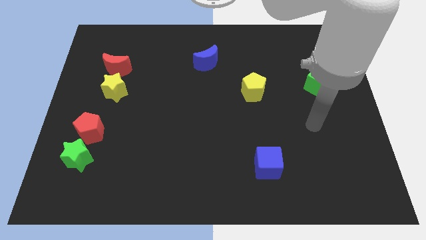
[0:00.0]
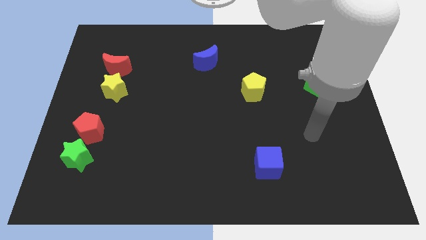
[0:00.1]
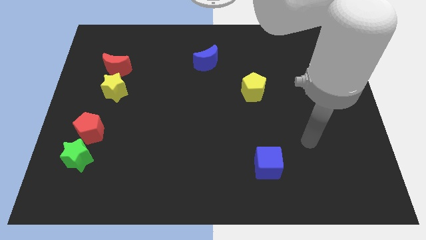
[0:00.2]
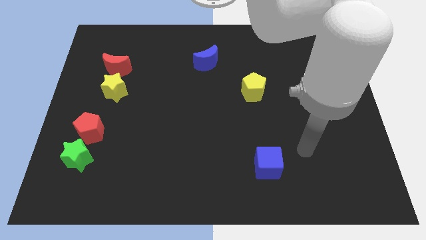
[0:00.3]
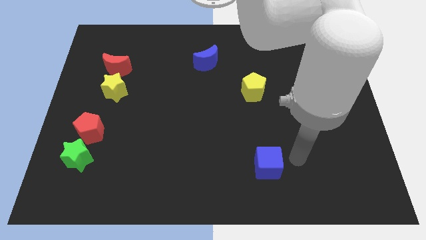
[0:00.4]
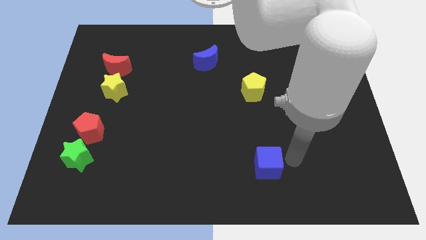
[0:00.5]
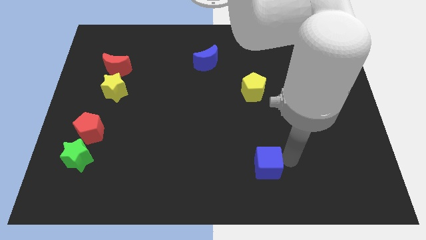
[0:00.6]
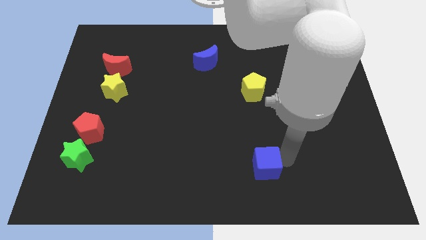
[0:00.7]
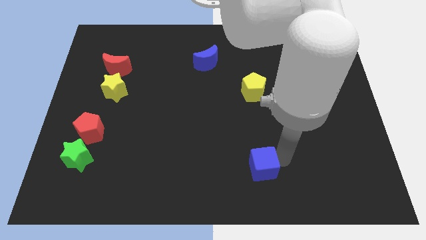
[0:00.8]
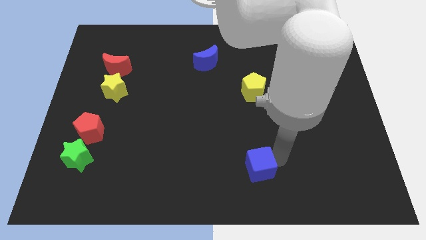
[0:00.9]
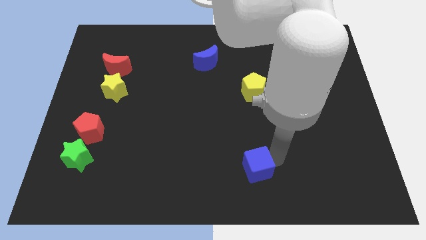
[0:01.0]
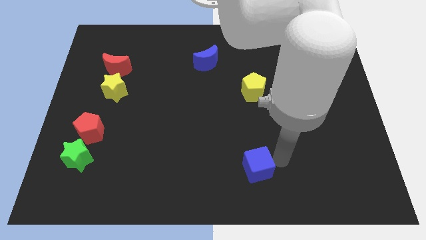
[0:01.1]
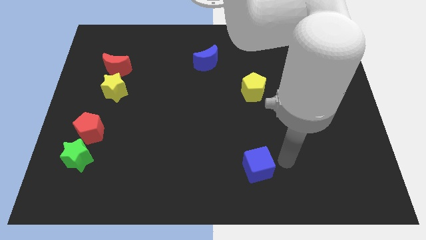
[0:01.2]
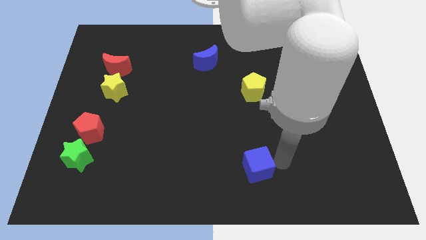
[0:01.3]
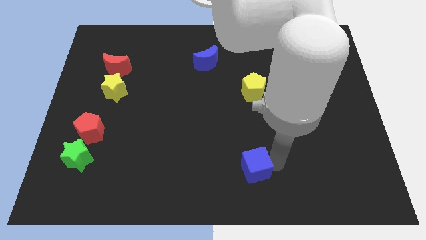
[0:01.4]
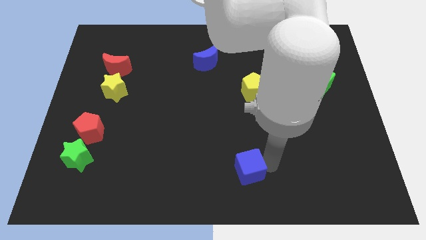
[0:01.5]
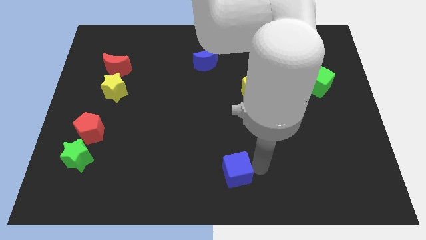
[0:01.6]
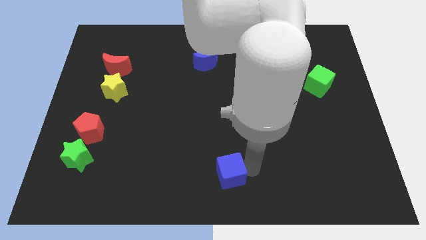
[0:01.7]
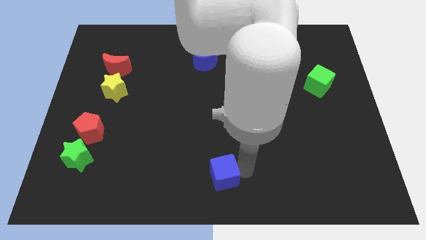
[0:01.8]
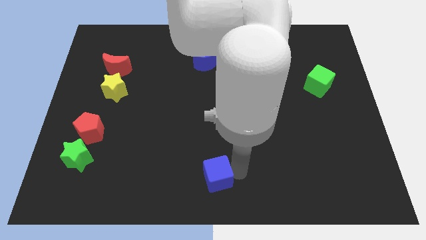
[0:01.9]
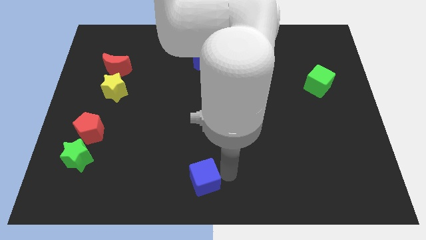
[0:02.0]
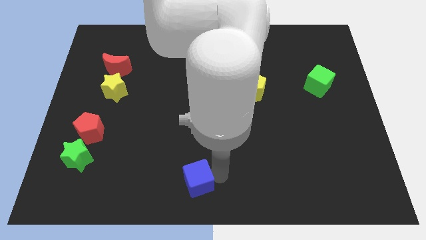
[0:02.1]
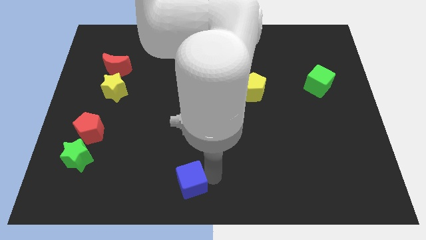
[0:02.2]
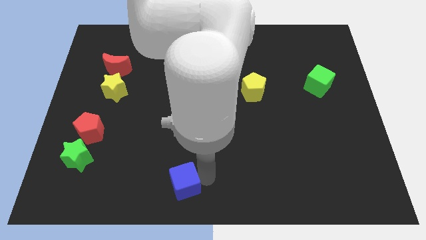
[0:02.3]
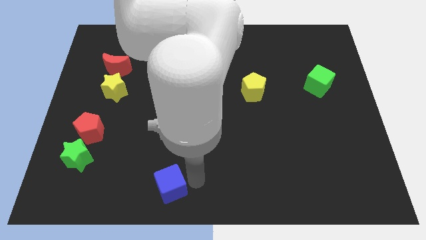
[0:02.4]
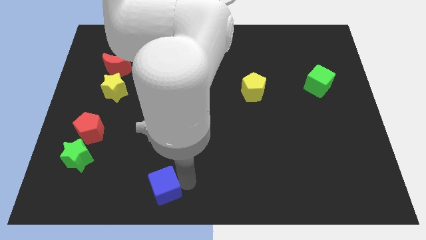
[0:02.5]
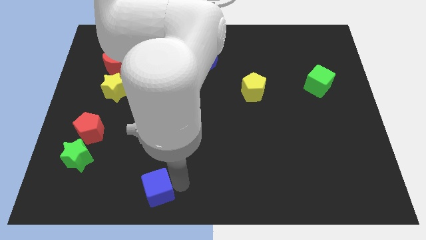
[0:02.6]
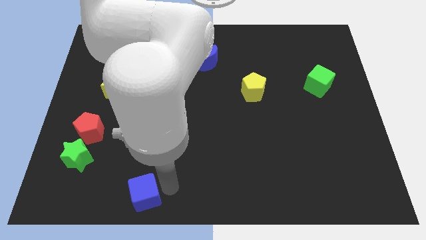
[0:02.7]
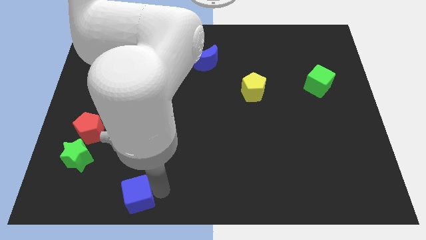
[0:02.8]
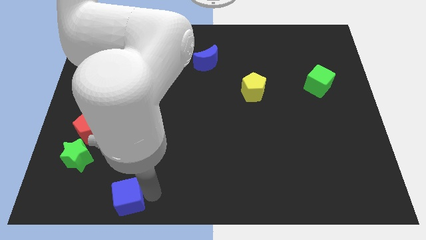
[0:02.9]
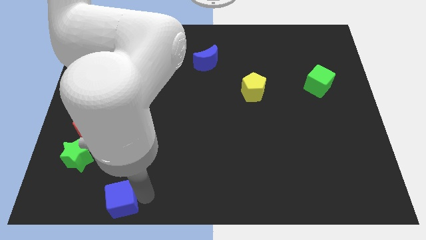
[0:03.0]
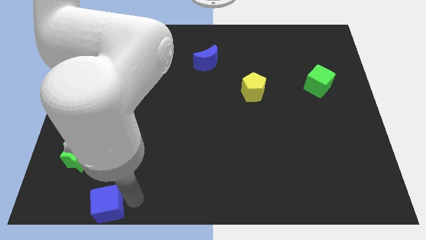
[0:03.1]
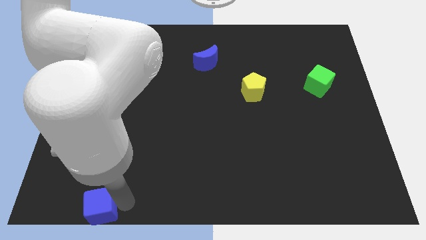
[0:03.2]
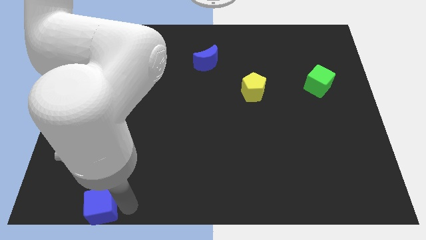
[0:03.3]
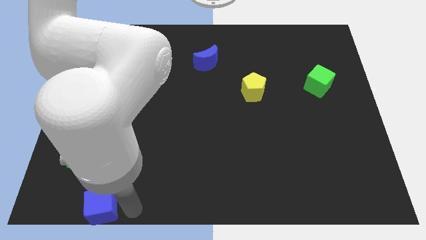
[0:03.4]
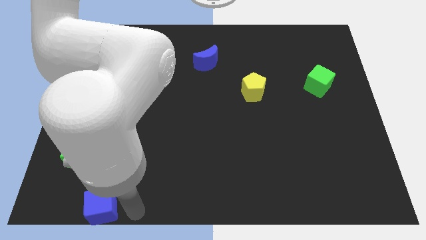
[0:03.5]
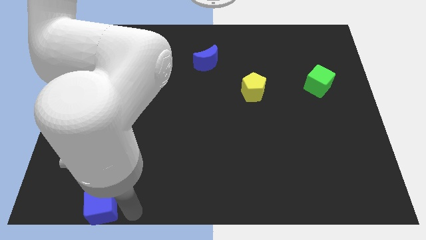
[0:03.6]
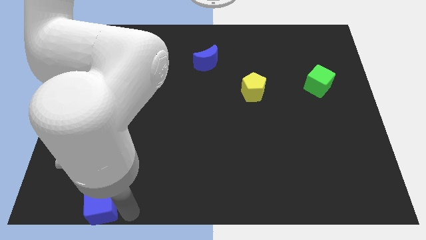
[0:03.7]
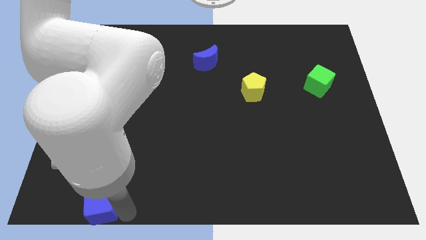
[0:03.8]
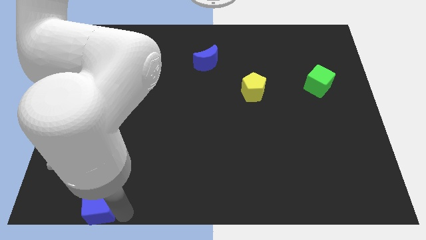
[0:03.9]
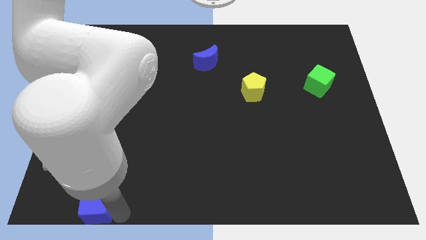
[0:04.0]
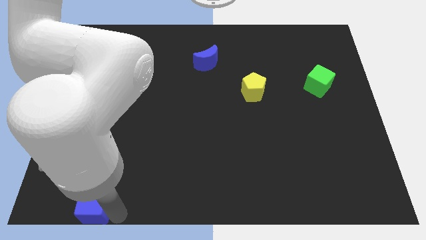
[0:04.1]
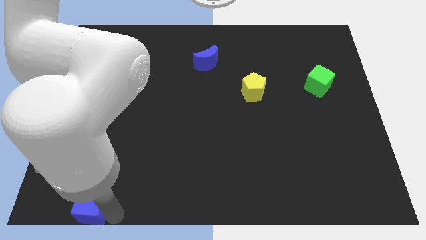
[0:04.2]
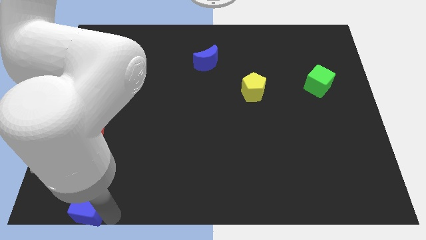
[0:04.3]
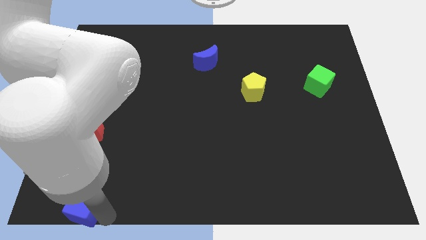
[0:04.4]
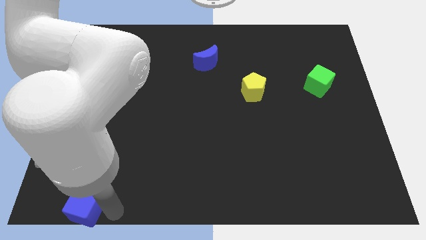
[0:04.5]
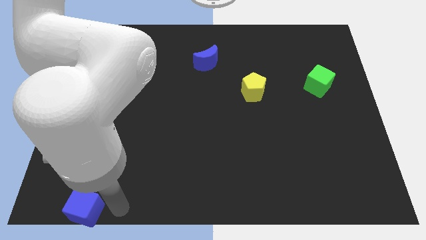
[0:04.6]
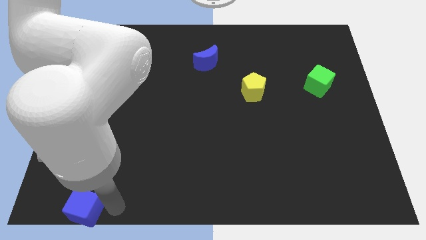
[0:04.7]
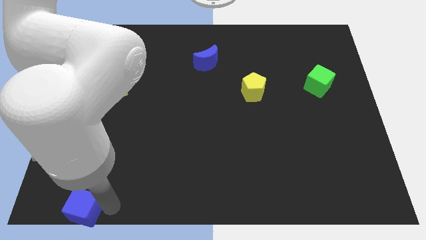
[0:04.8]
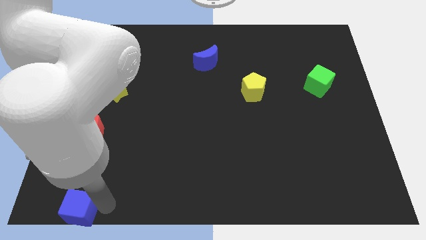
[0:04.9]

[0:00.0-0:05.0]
move the blue cube to the bottom left of the board

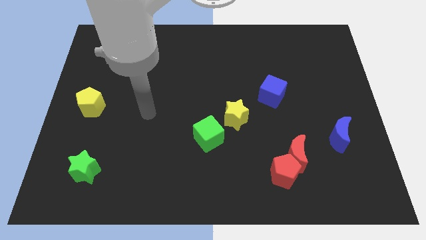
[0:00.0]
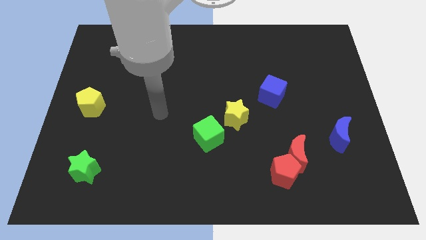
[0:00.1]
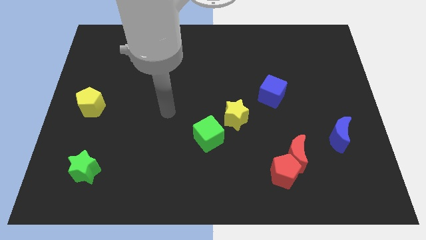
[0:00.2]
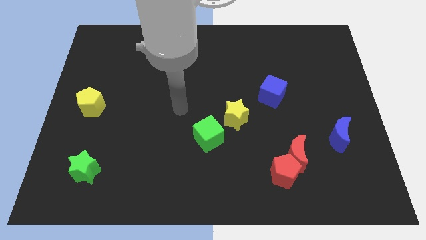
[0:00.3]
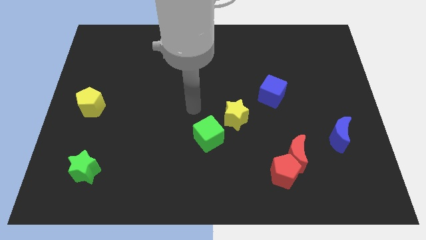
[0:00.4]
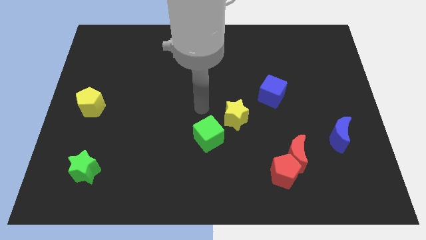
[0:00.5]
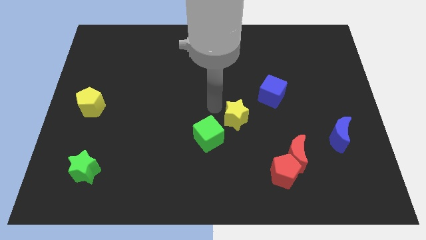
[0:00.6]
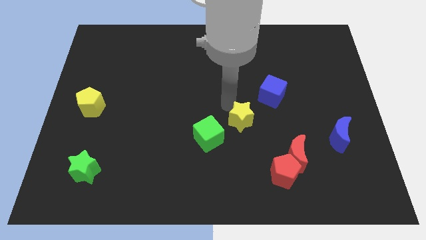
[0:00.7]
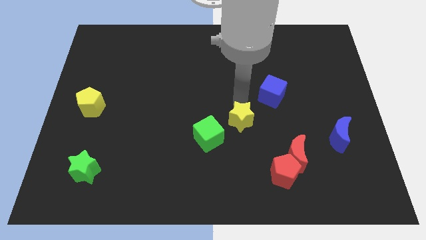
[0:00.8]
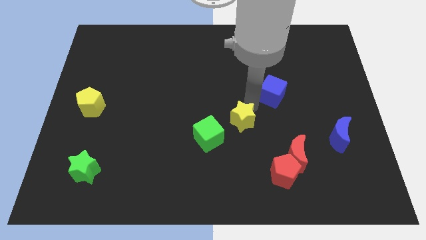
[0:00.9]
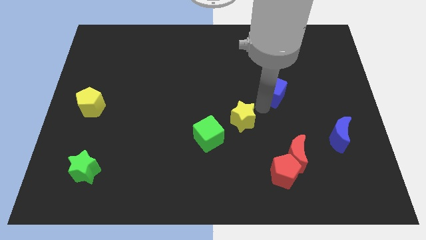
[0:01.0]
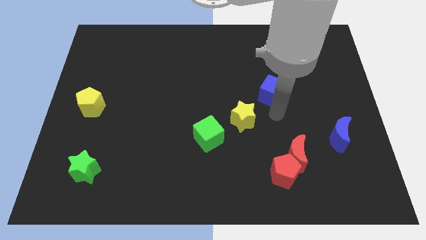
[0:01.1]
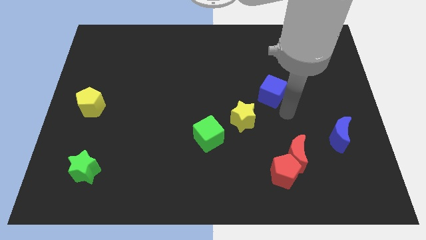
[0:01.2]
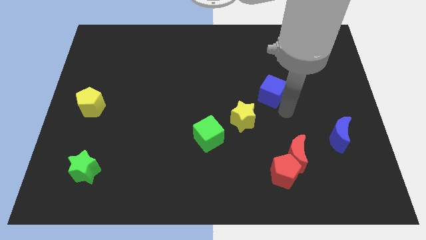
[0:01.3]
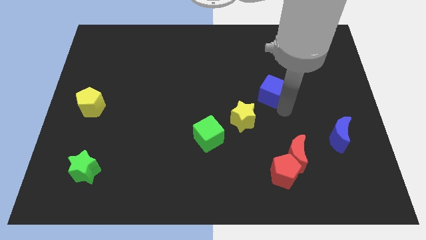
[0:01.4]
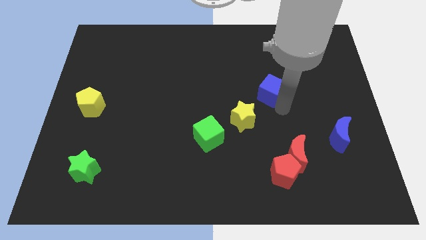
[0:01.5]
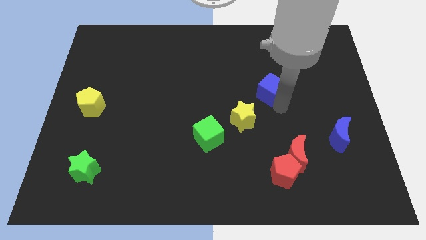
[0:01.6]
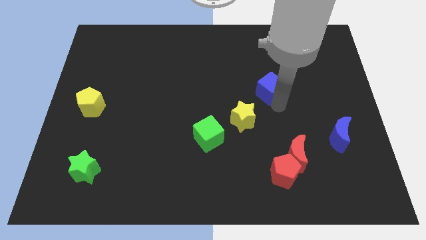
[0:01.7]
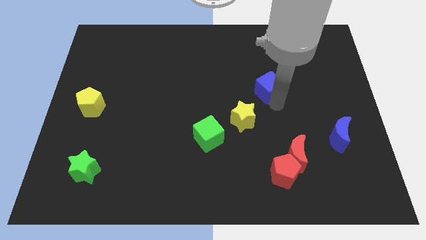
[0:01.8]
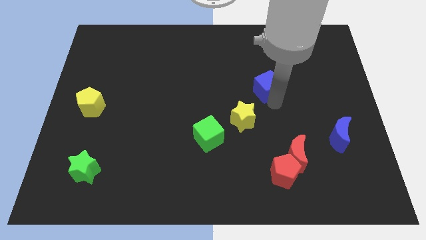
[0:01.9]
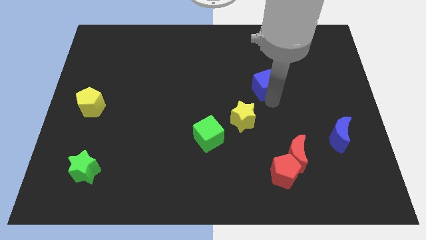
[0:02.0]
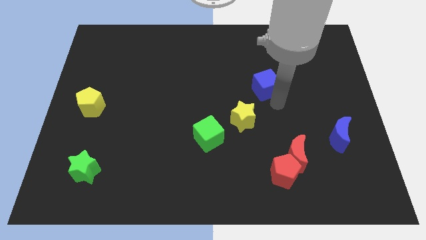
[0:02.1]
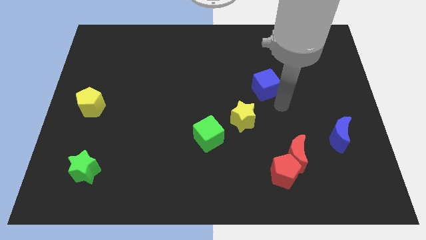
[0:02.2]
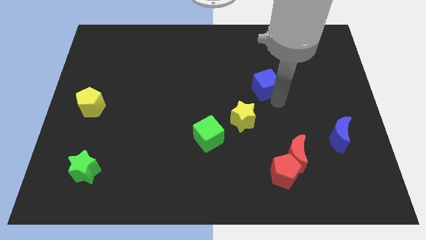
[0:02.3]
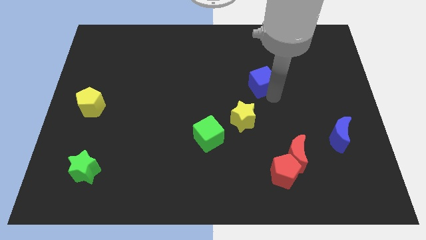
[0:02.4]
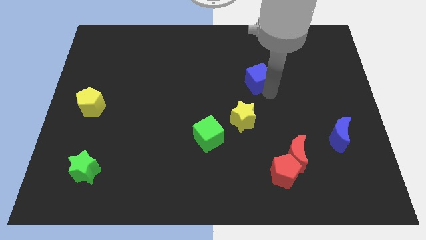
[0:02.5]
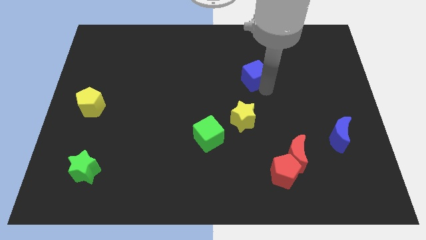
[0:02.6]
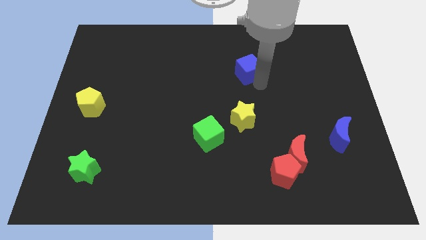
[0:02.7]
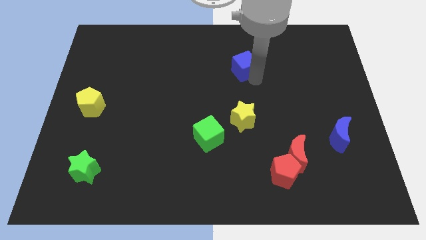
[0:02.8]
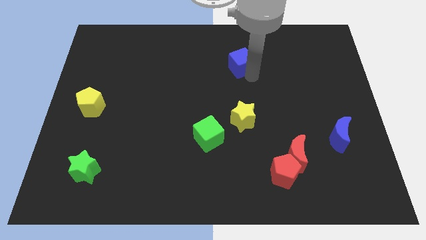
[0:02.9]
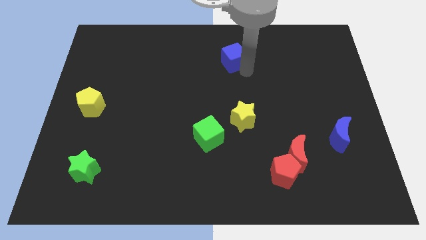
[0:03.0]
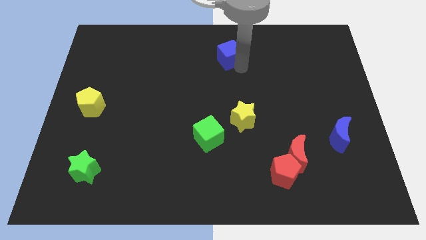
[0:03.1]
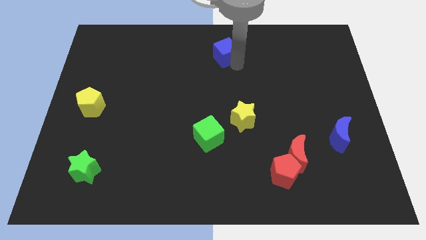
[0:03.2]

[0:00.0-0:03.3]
push the blue cube to the top side
